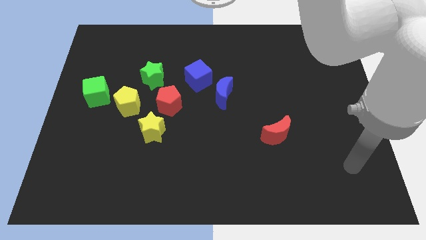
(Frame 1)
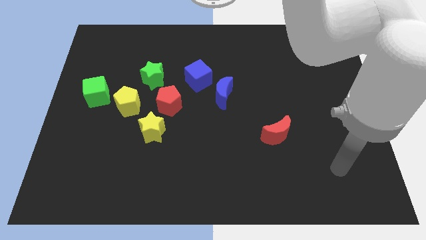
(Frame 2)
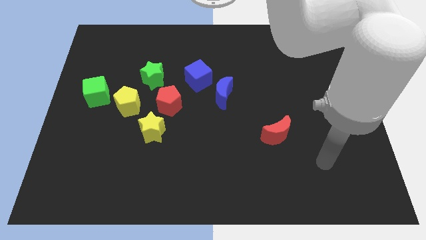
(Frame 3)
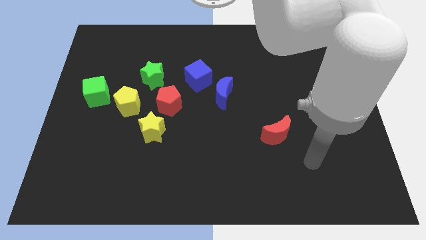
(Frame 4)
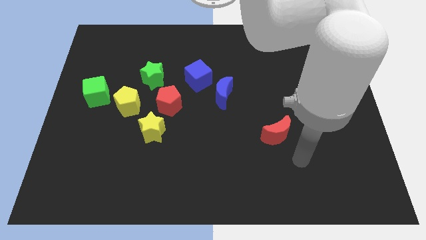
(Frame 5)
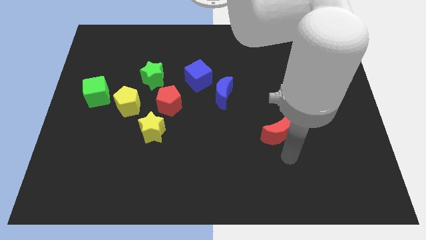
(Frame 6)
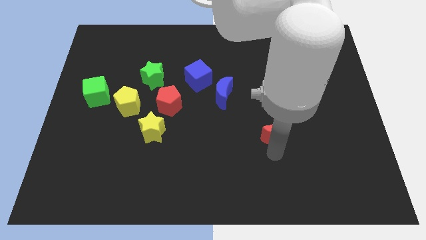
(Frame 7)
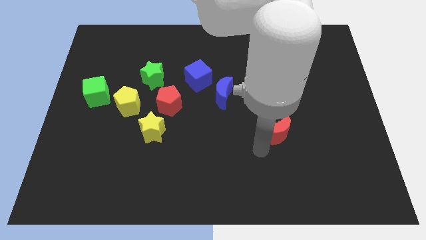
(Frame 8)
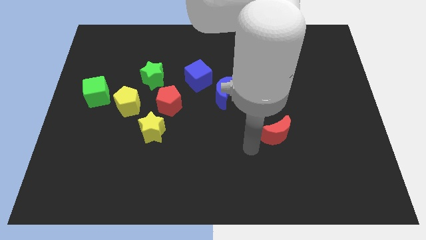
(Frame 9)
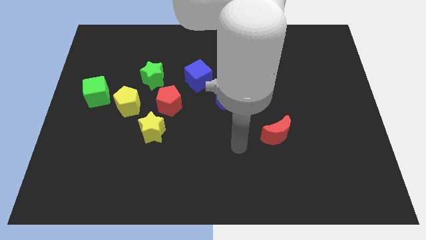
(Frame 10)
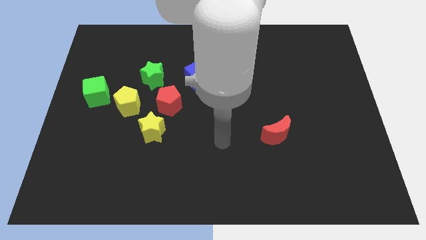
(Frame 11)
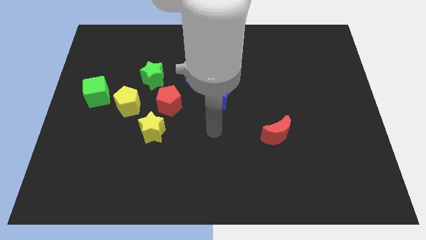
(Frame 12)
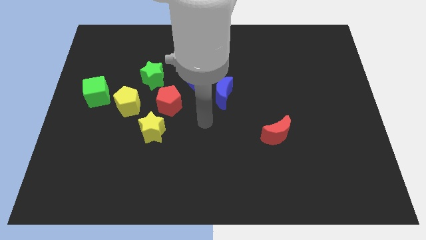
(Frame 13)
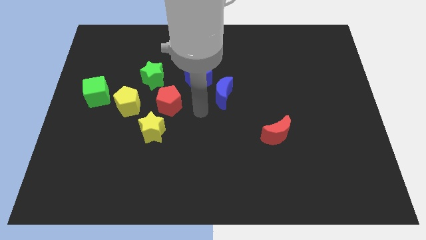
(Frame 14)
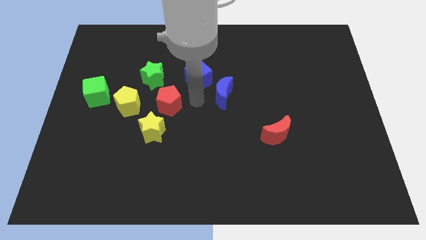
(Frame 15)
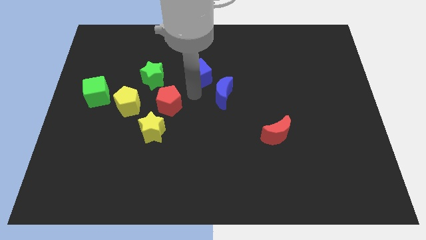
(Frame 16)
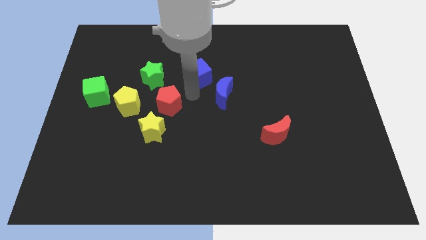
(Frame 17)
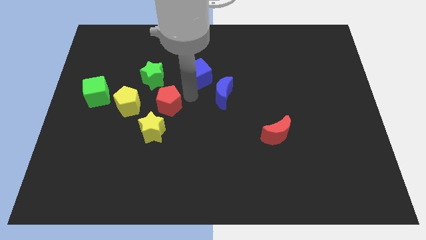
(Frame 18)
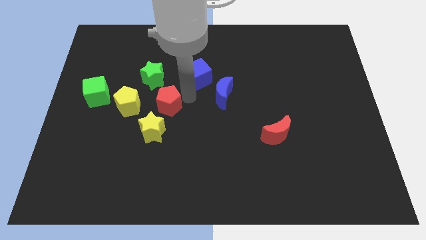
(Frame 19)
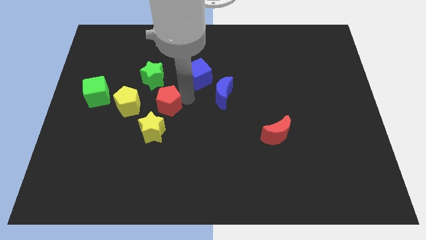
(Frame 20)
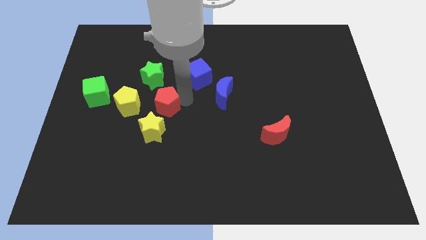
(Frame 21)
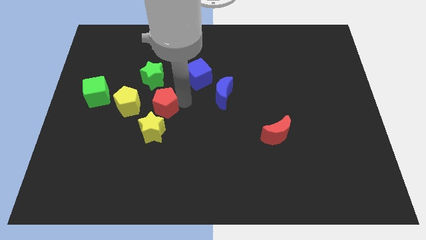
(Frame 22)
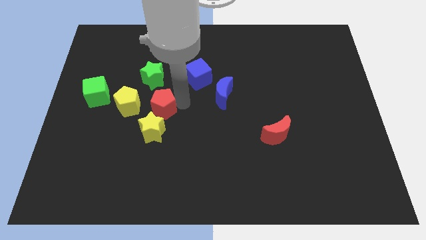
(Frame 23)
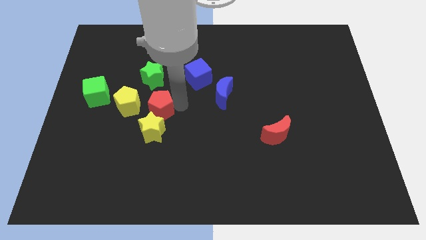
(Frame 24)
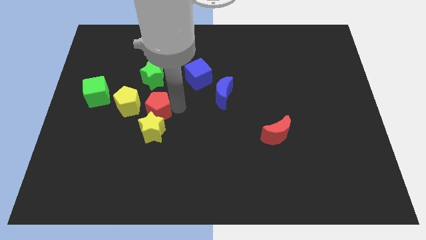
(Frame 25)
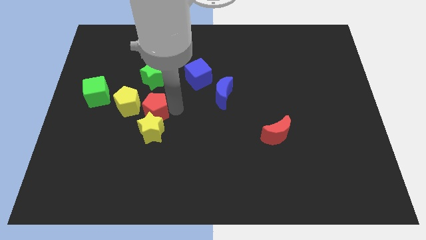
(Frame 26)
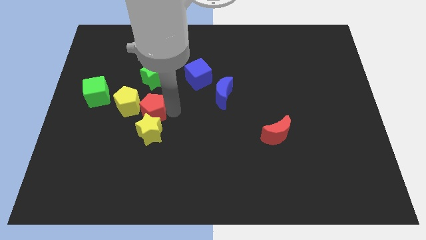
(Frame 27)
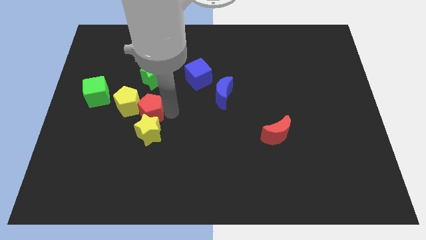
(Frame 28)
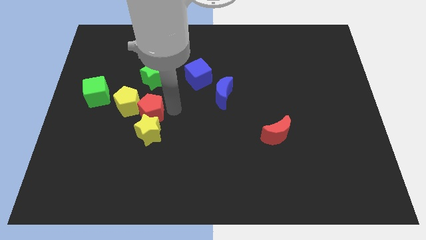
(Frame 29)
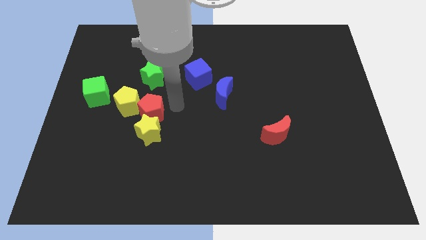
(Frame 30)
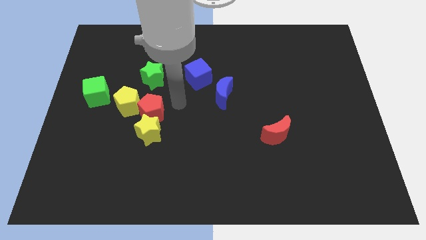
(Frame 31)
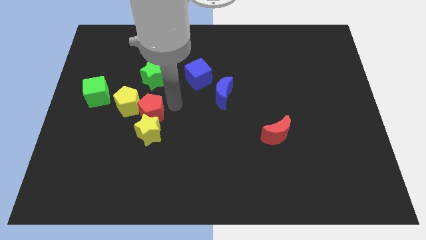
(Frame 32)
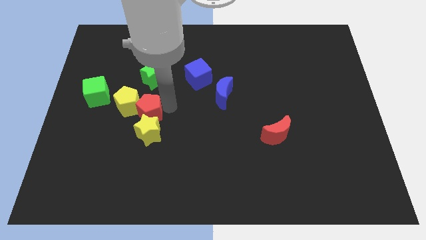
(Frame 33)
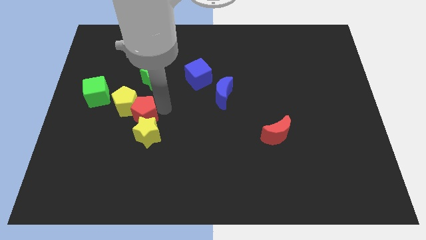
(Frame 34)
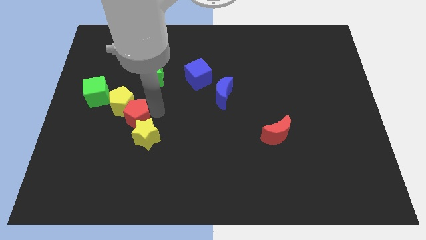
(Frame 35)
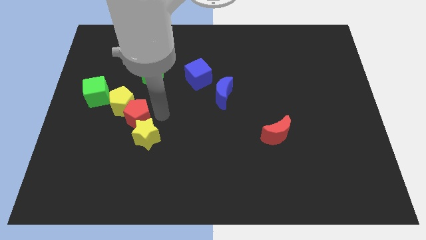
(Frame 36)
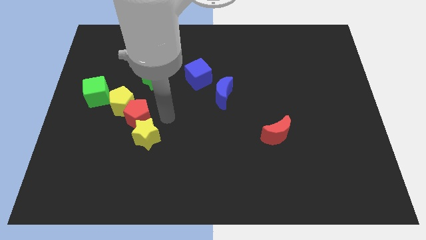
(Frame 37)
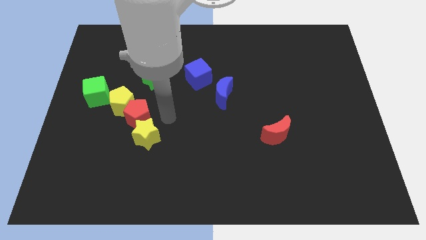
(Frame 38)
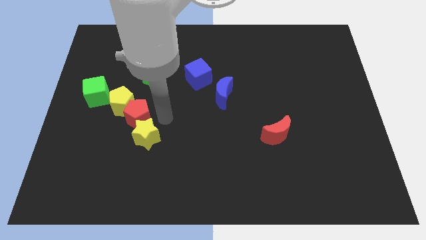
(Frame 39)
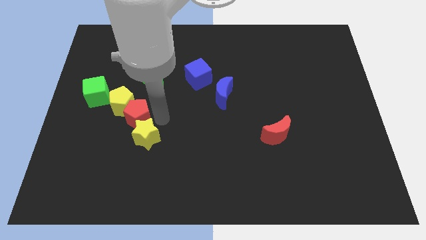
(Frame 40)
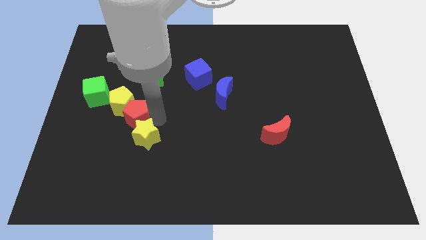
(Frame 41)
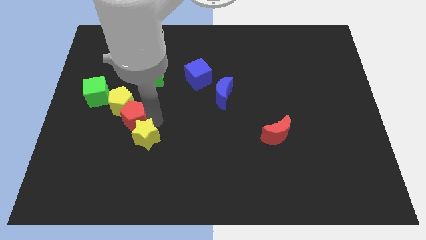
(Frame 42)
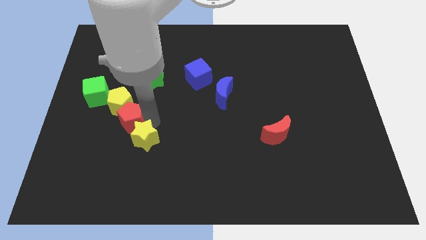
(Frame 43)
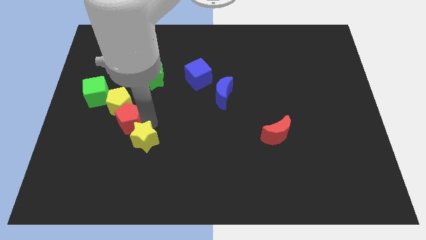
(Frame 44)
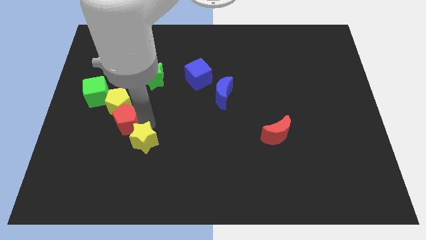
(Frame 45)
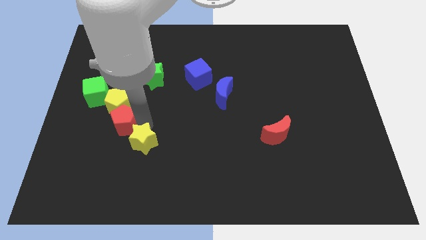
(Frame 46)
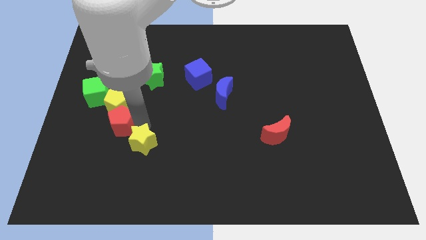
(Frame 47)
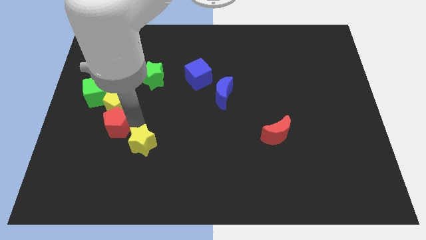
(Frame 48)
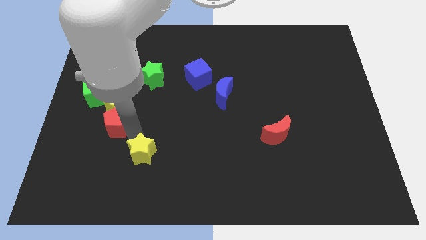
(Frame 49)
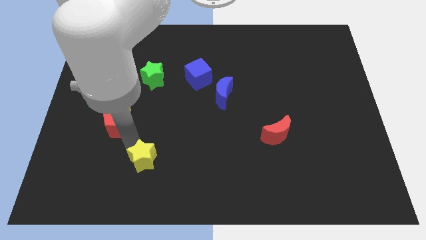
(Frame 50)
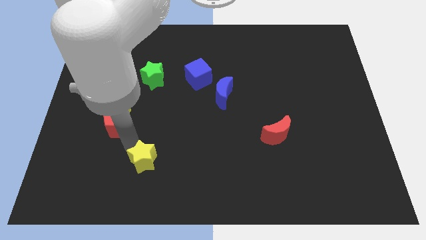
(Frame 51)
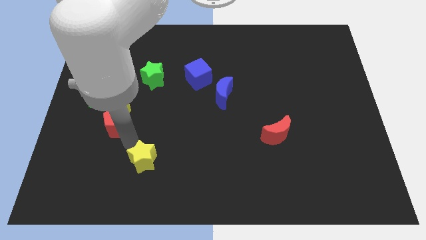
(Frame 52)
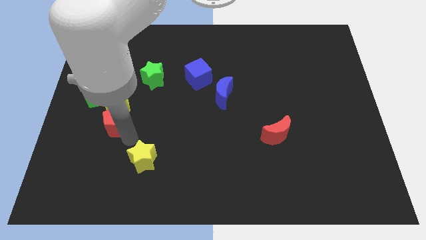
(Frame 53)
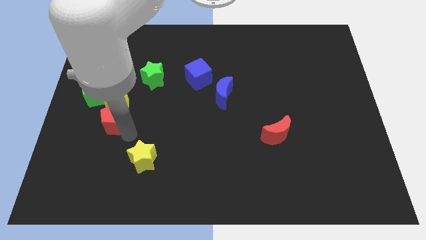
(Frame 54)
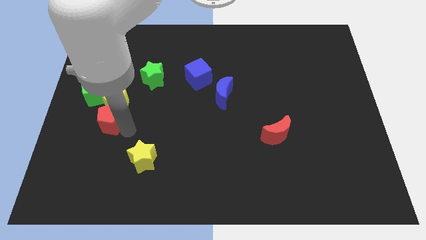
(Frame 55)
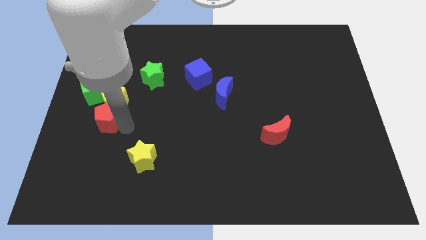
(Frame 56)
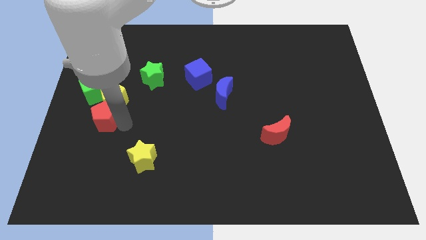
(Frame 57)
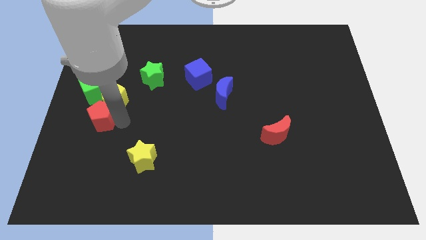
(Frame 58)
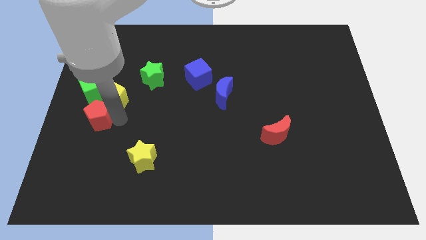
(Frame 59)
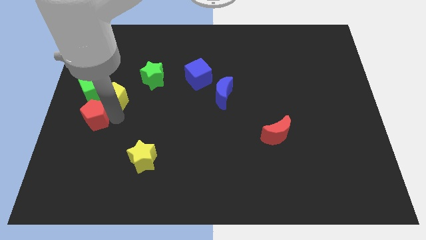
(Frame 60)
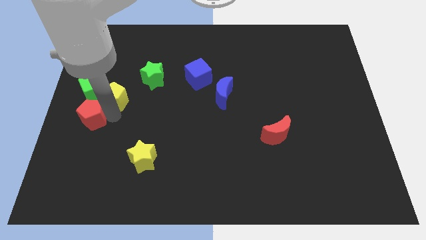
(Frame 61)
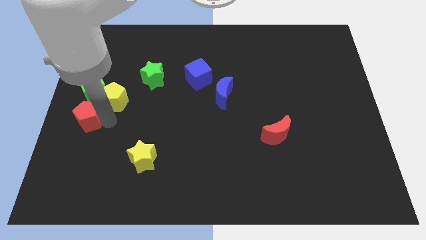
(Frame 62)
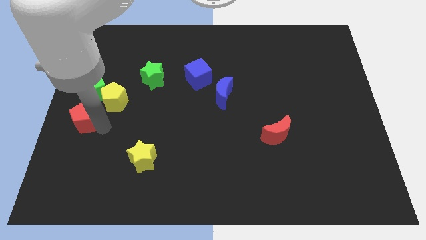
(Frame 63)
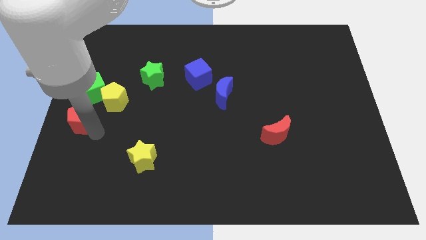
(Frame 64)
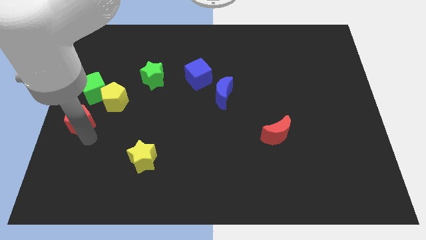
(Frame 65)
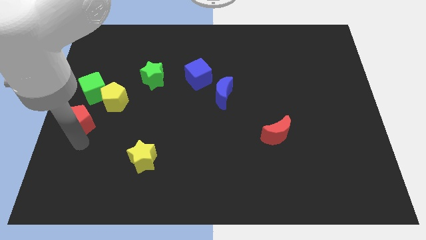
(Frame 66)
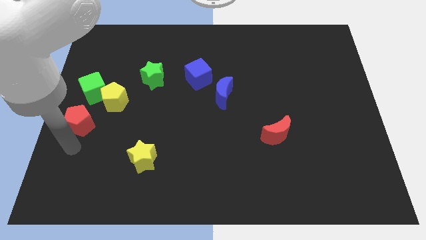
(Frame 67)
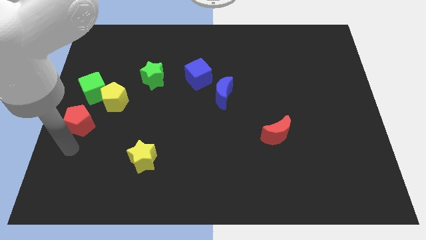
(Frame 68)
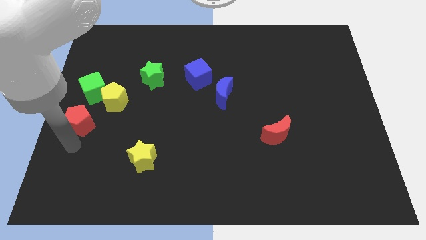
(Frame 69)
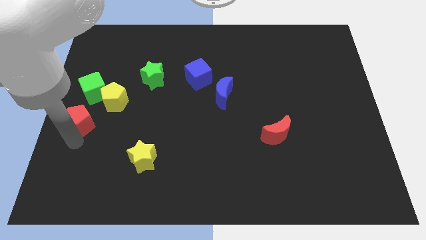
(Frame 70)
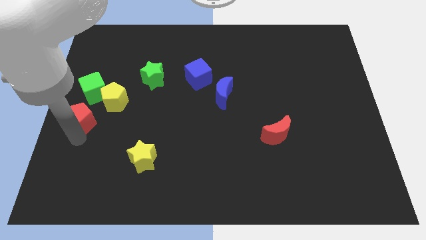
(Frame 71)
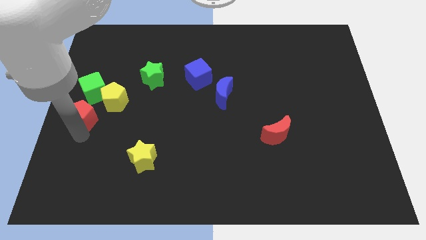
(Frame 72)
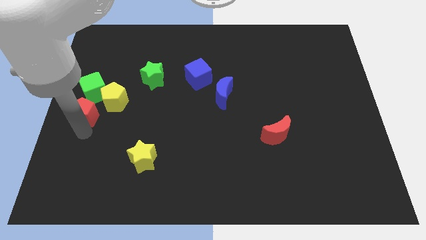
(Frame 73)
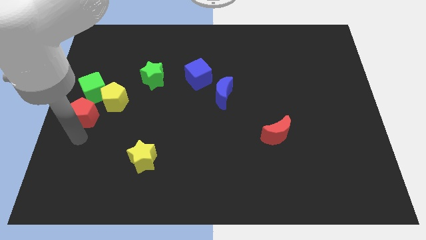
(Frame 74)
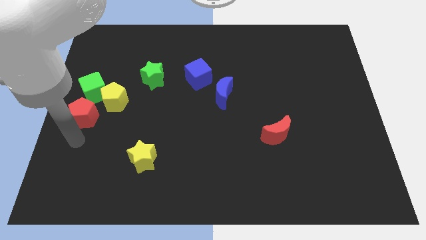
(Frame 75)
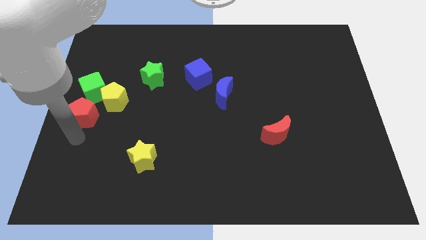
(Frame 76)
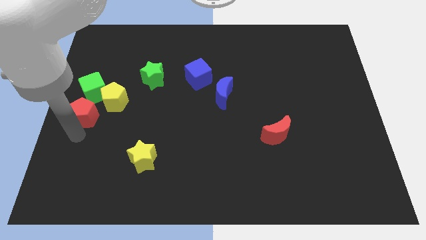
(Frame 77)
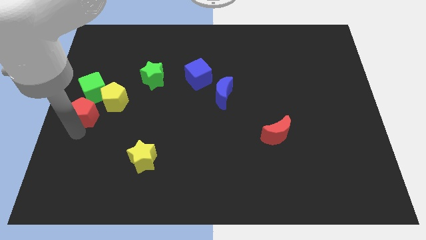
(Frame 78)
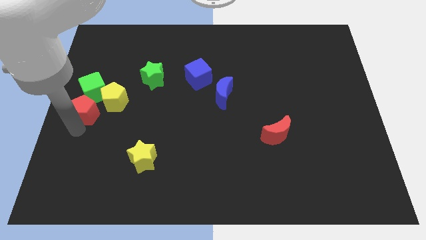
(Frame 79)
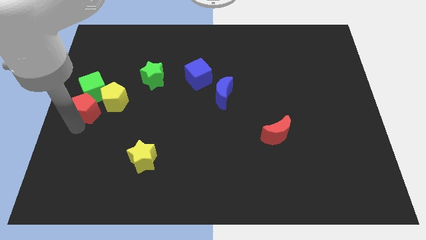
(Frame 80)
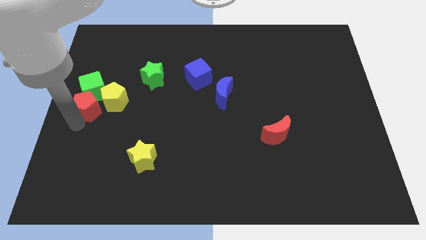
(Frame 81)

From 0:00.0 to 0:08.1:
push the red pentagon towards the green cube

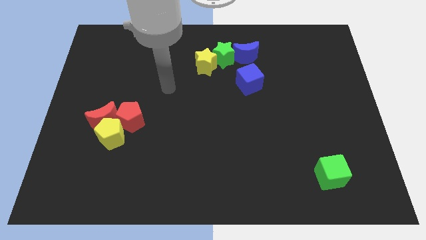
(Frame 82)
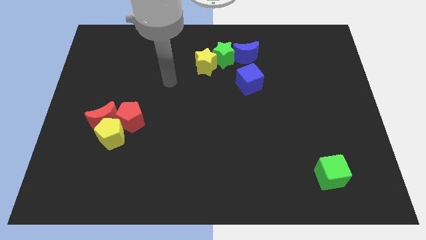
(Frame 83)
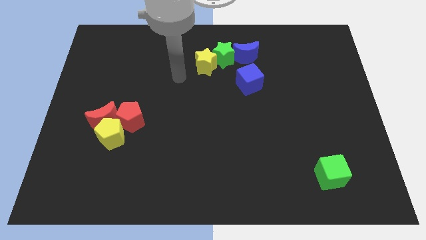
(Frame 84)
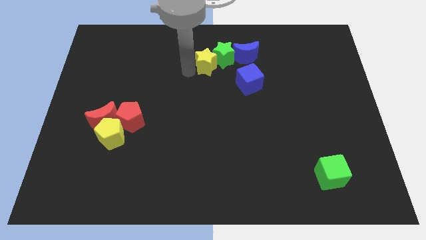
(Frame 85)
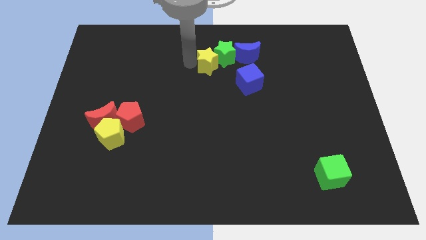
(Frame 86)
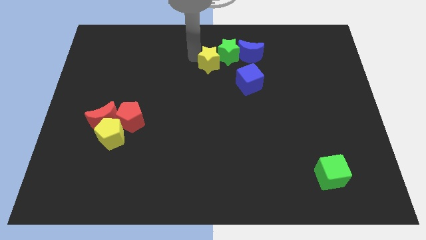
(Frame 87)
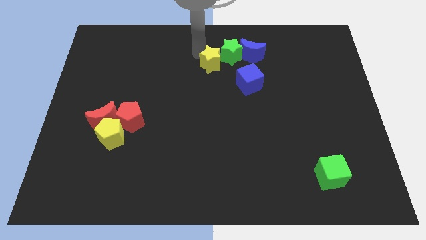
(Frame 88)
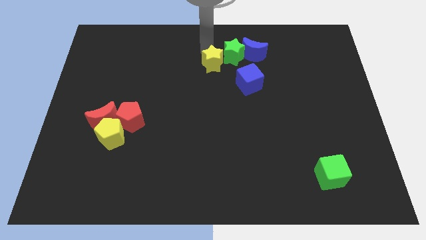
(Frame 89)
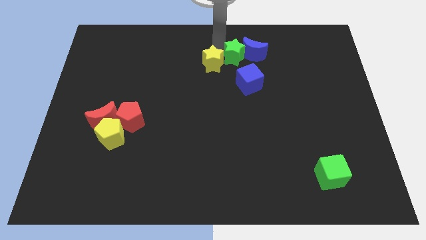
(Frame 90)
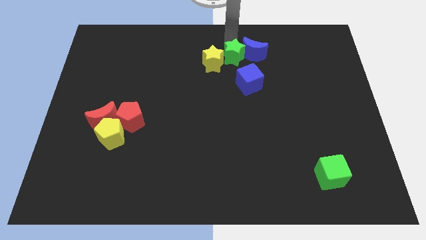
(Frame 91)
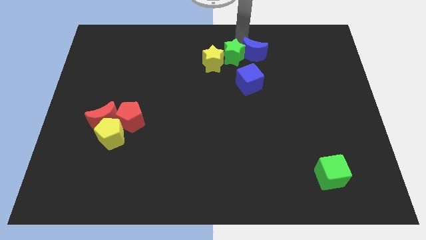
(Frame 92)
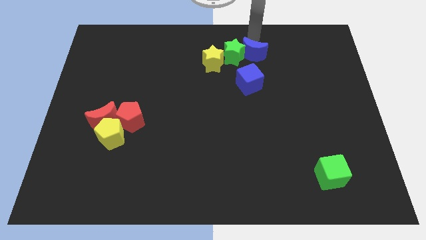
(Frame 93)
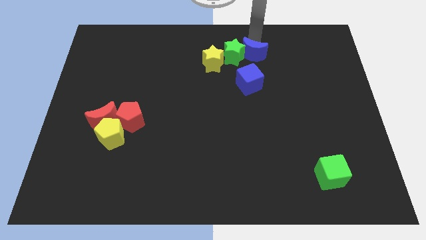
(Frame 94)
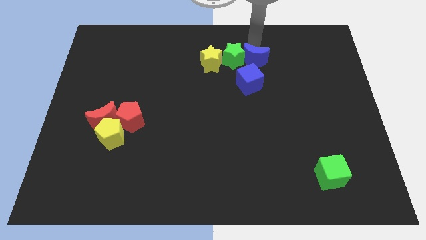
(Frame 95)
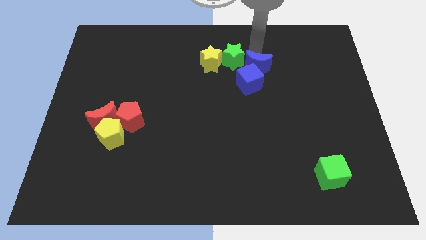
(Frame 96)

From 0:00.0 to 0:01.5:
move the blue moon next to the blue cube
